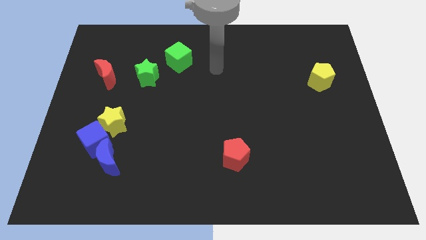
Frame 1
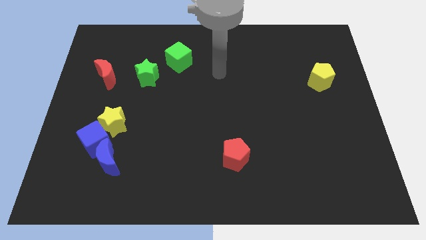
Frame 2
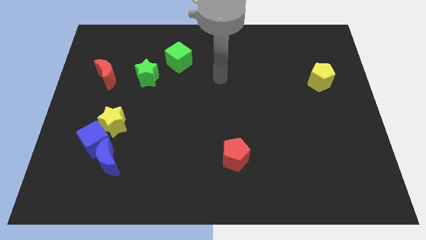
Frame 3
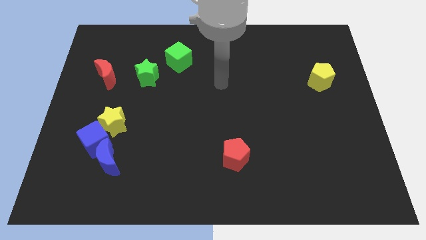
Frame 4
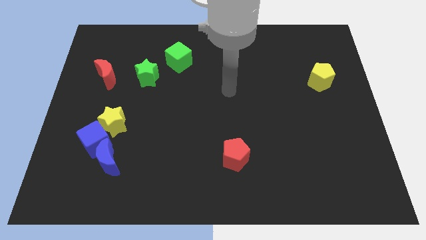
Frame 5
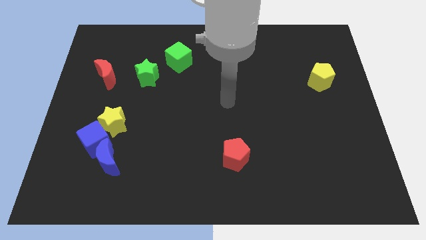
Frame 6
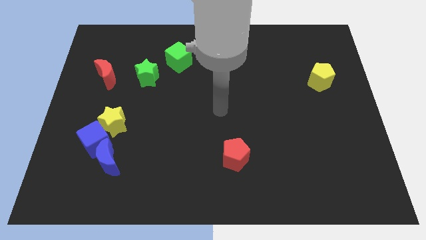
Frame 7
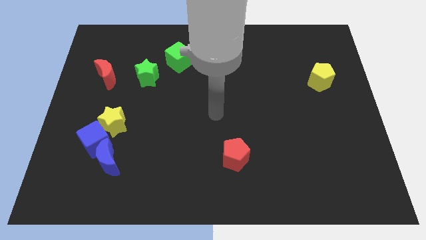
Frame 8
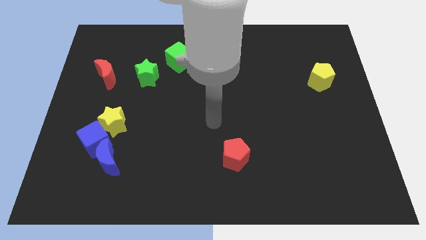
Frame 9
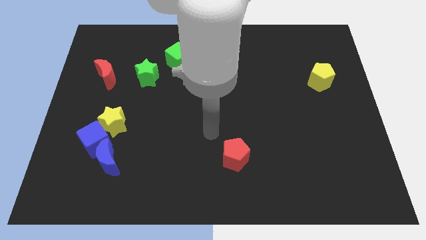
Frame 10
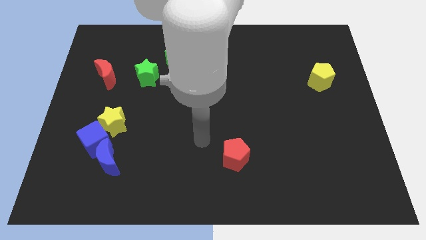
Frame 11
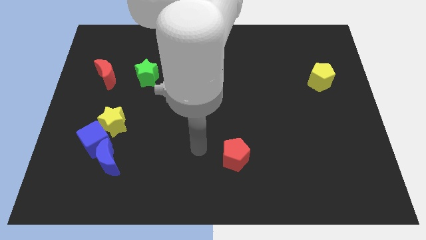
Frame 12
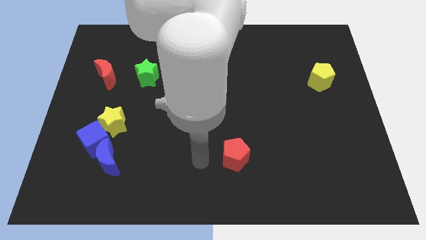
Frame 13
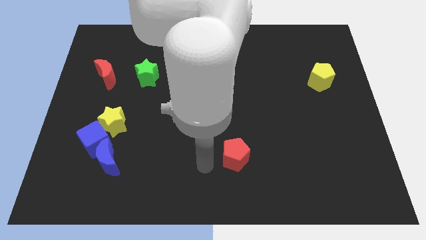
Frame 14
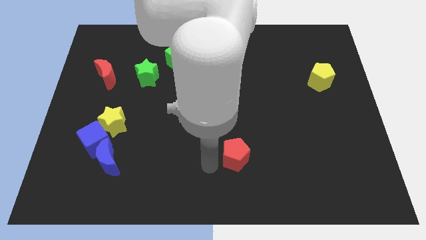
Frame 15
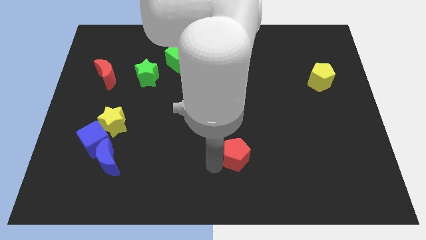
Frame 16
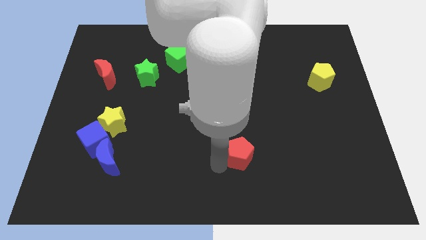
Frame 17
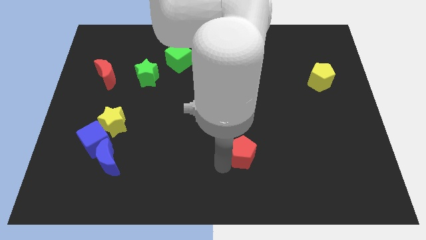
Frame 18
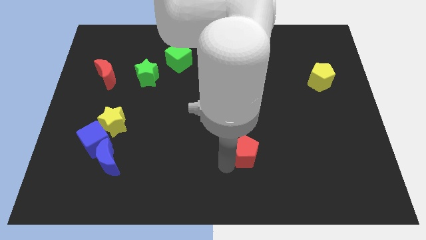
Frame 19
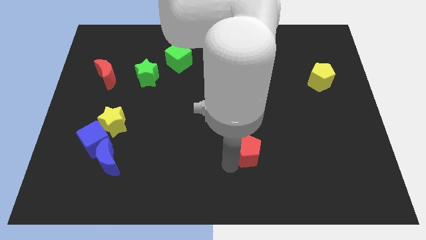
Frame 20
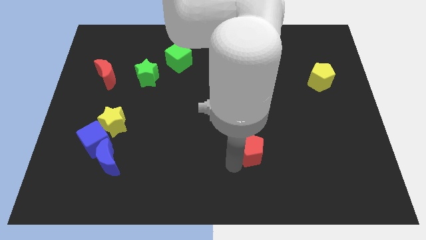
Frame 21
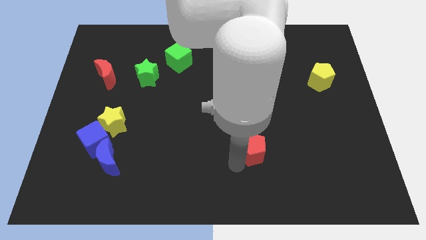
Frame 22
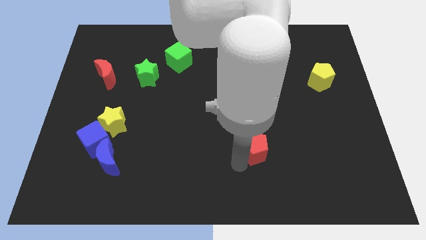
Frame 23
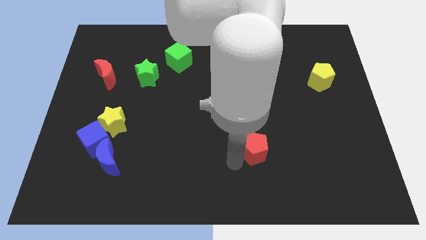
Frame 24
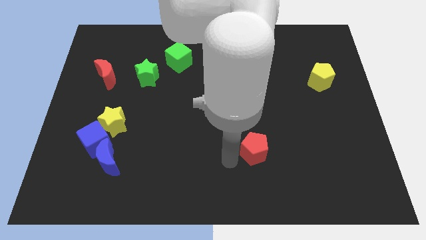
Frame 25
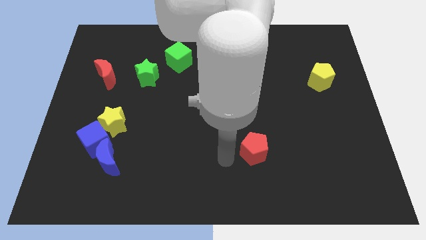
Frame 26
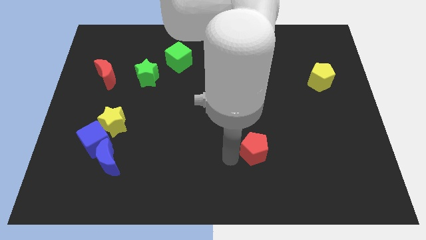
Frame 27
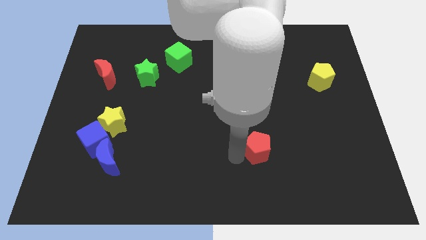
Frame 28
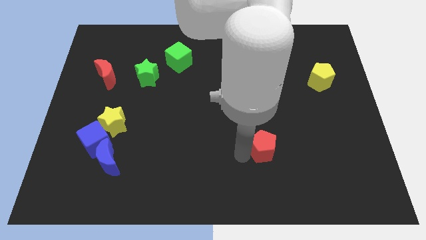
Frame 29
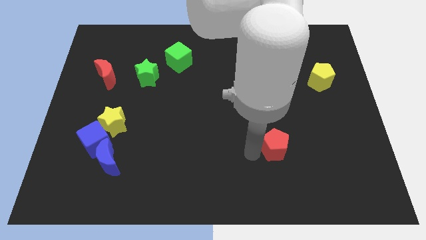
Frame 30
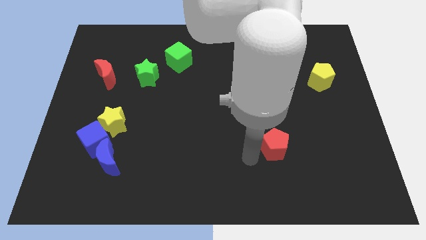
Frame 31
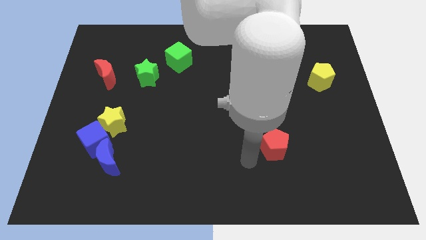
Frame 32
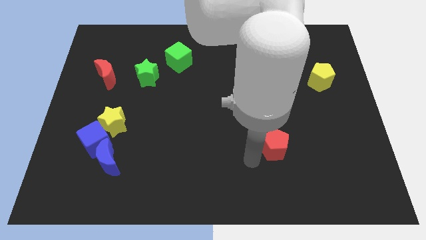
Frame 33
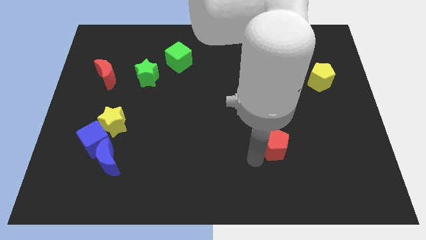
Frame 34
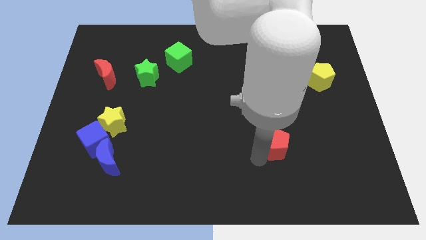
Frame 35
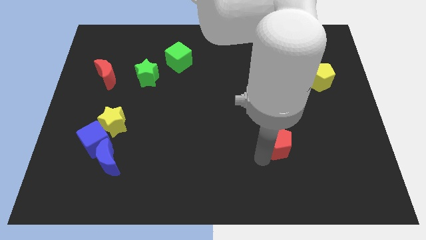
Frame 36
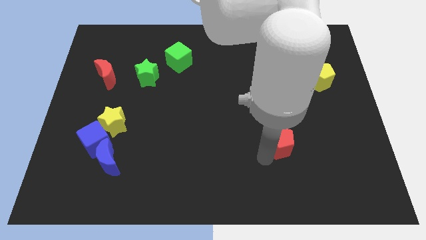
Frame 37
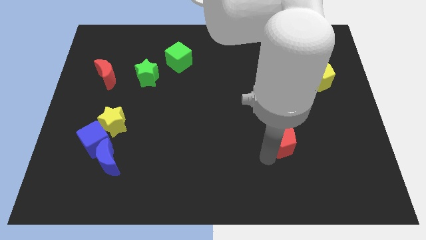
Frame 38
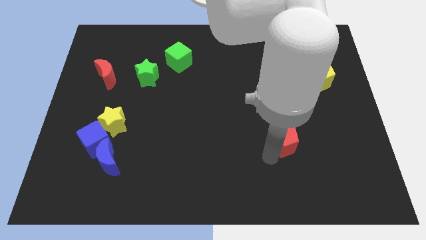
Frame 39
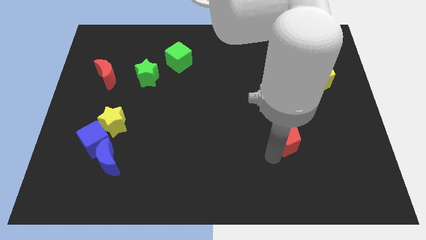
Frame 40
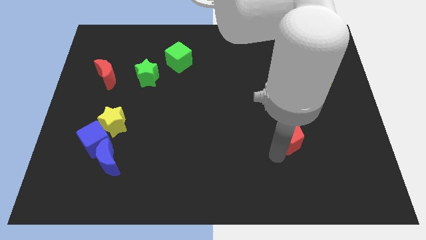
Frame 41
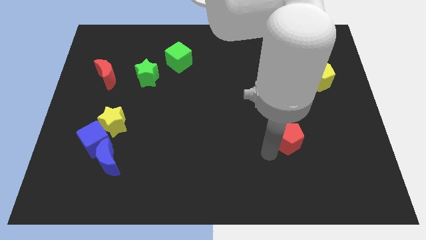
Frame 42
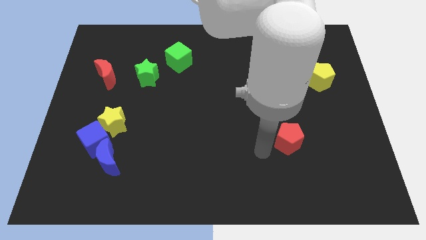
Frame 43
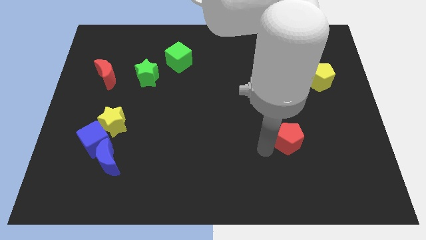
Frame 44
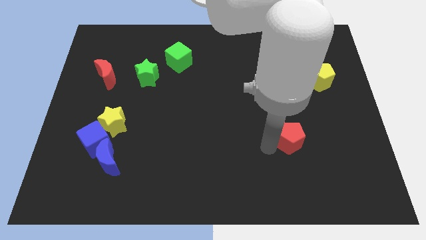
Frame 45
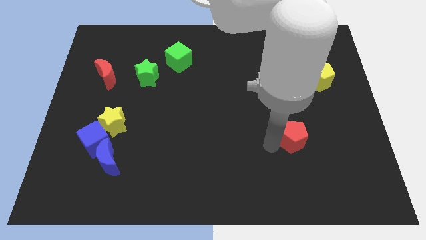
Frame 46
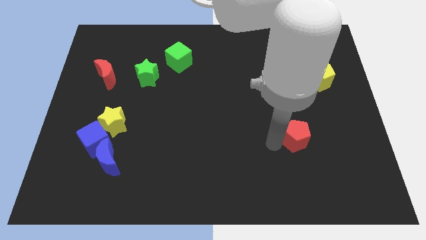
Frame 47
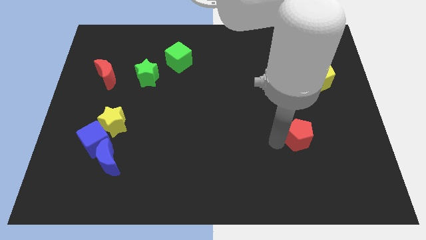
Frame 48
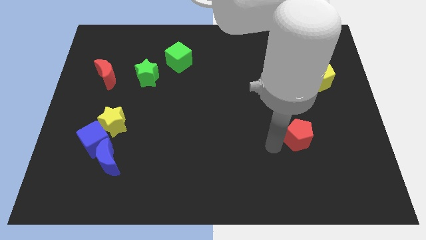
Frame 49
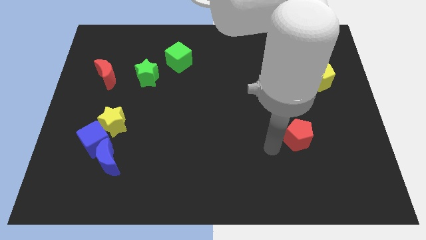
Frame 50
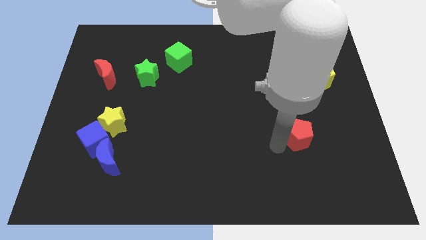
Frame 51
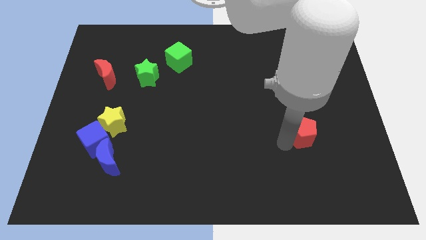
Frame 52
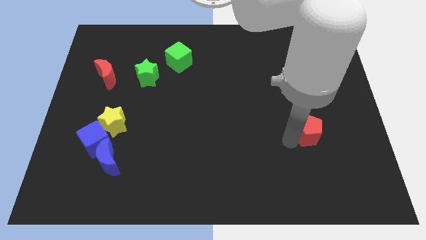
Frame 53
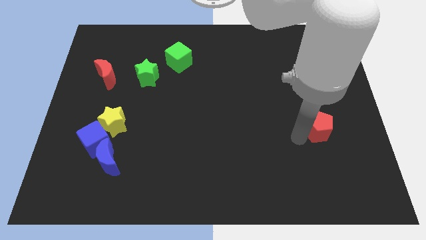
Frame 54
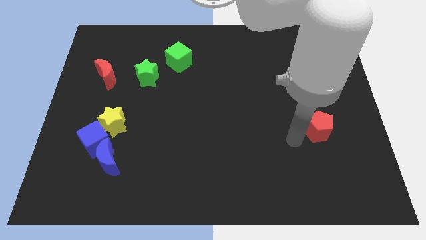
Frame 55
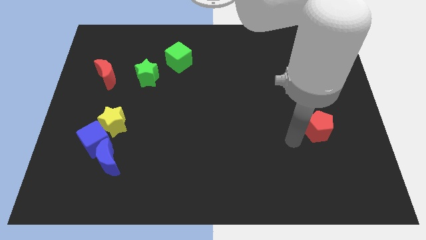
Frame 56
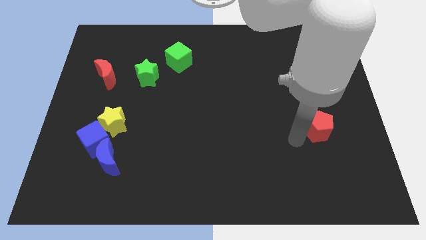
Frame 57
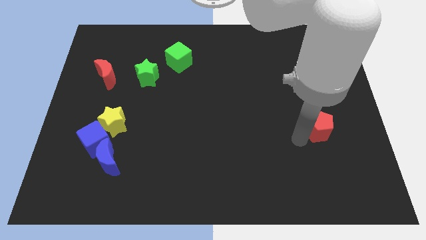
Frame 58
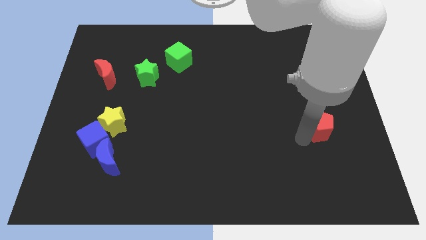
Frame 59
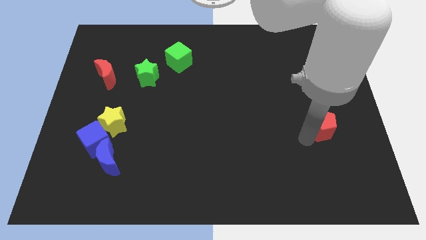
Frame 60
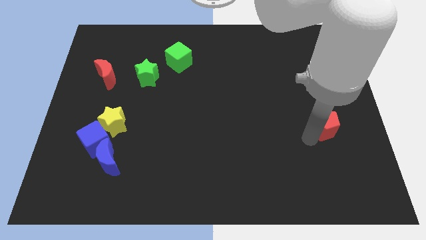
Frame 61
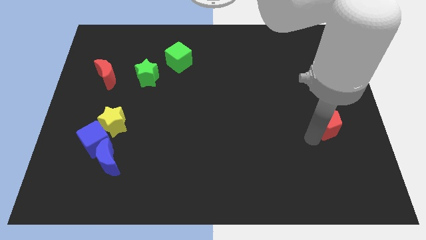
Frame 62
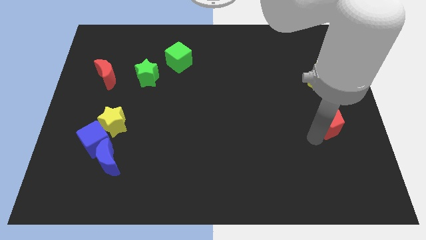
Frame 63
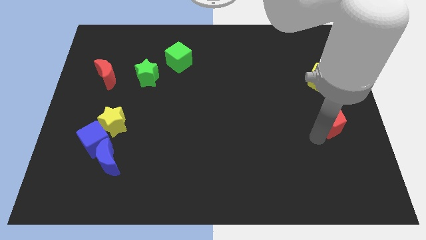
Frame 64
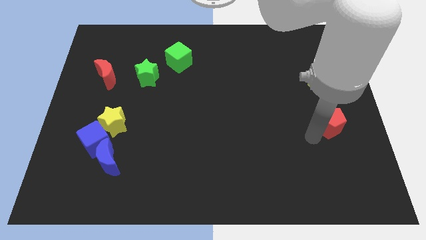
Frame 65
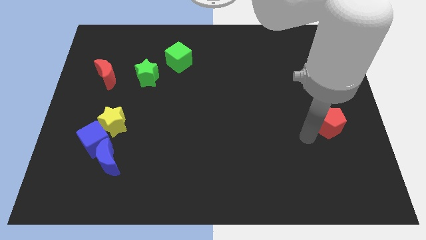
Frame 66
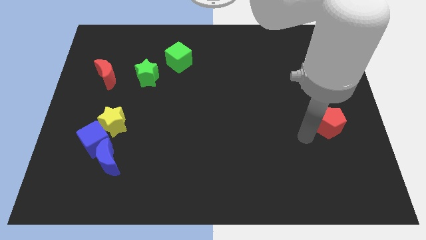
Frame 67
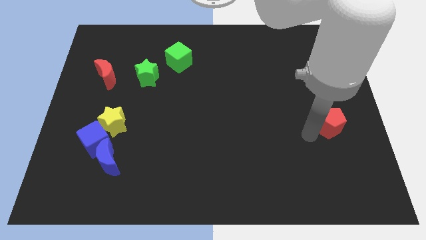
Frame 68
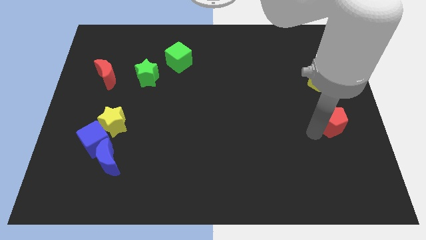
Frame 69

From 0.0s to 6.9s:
put the red pentagon to the right side of the board
